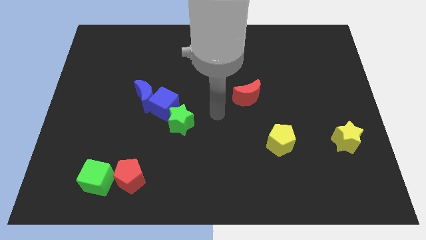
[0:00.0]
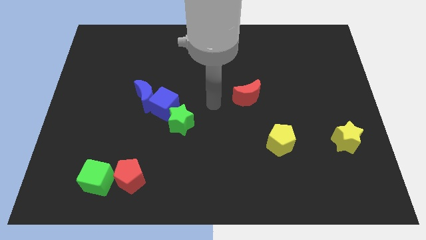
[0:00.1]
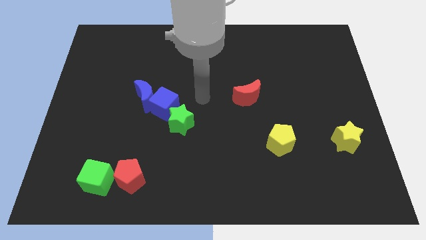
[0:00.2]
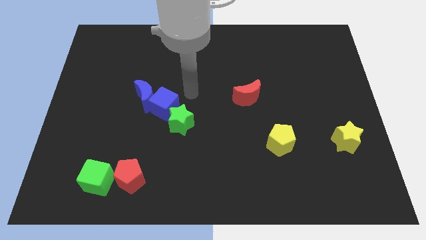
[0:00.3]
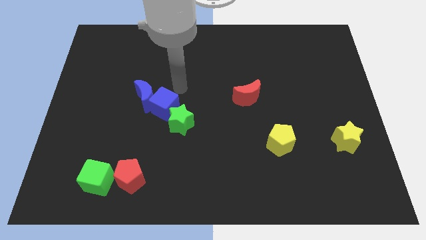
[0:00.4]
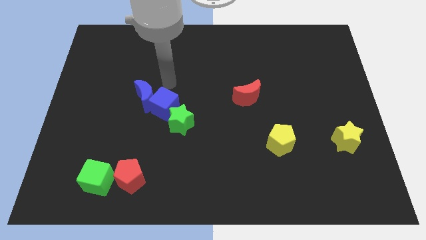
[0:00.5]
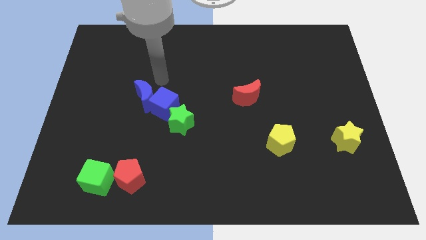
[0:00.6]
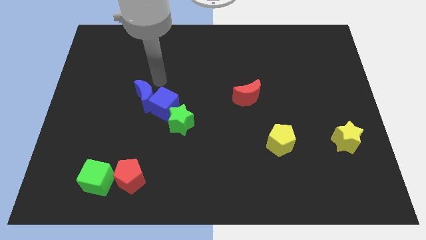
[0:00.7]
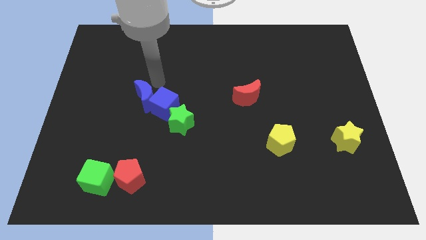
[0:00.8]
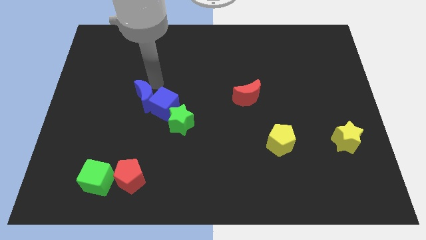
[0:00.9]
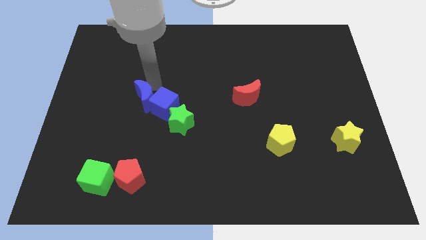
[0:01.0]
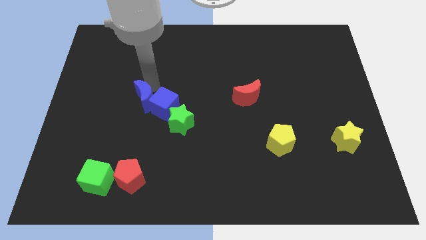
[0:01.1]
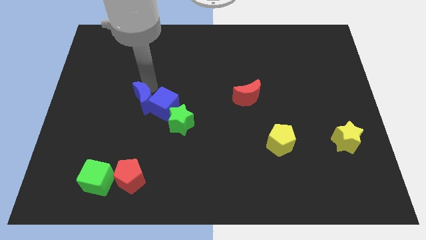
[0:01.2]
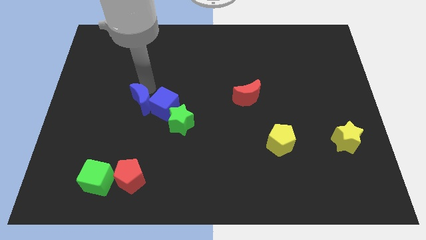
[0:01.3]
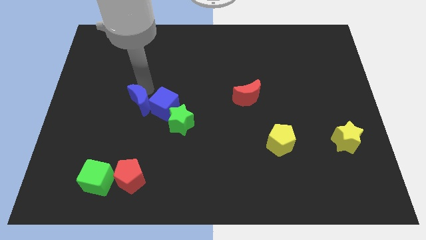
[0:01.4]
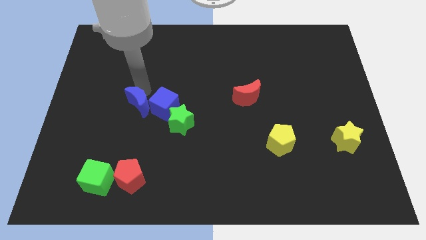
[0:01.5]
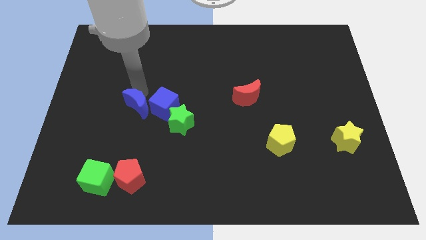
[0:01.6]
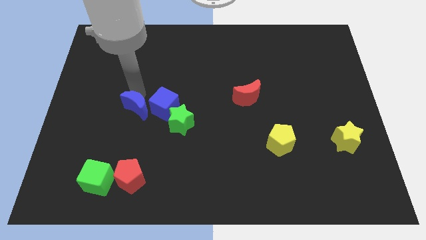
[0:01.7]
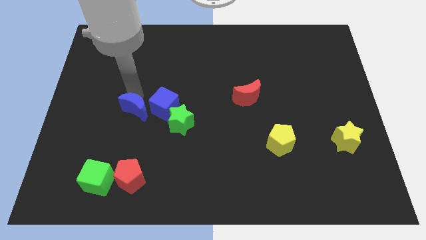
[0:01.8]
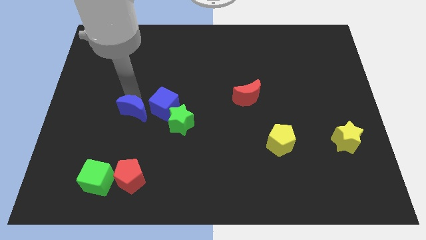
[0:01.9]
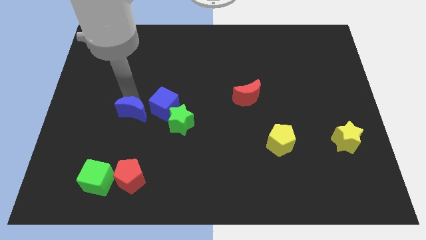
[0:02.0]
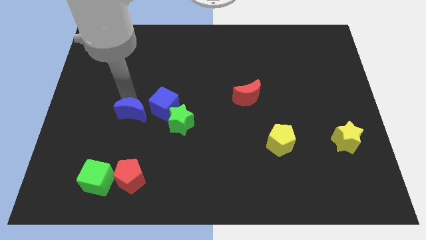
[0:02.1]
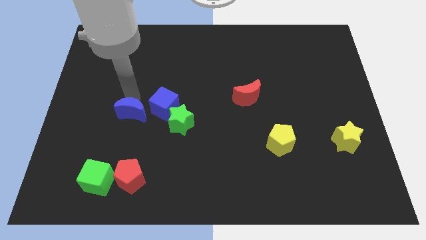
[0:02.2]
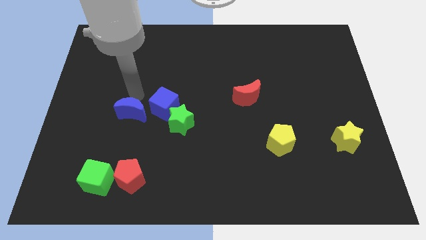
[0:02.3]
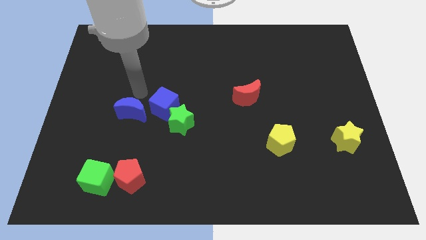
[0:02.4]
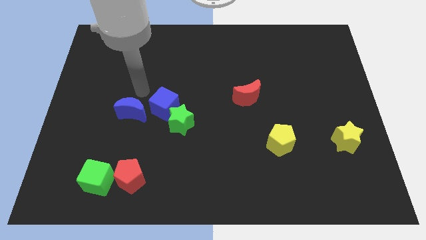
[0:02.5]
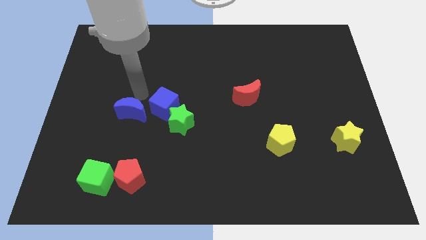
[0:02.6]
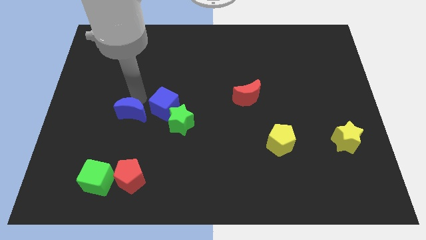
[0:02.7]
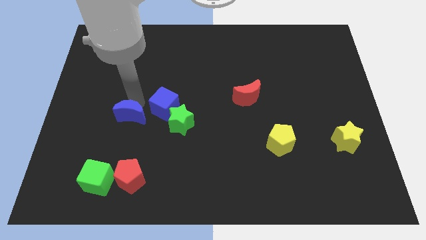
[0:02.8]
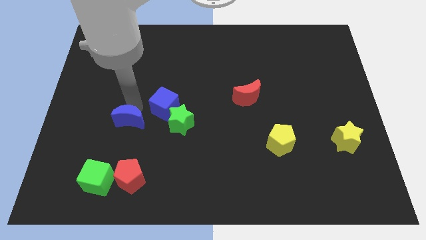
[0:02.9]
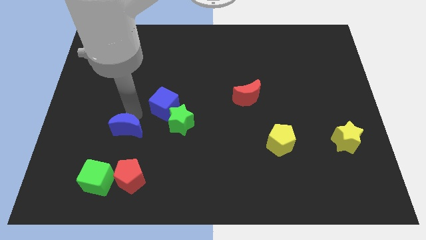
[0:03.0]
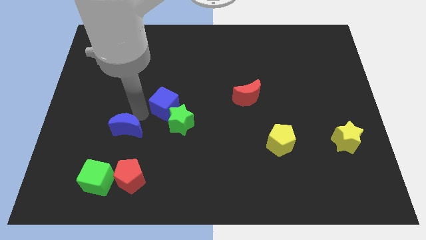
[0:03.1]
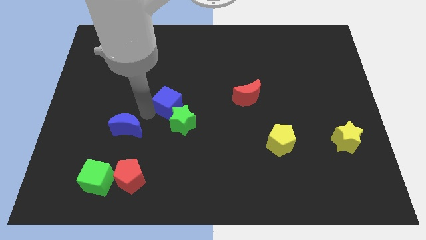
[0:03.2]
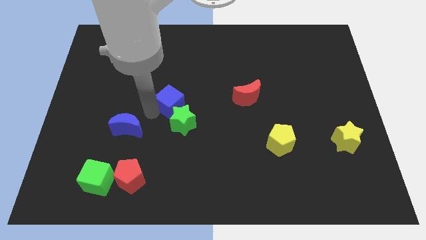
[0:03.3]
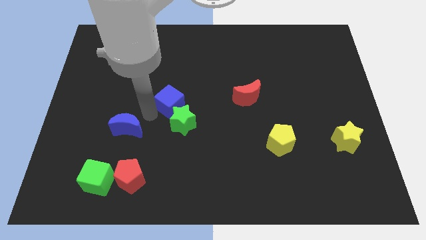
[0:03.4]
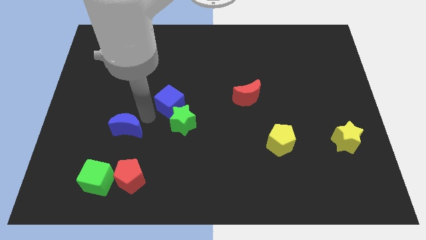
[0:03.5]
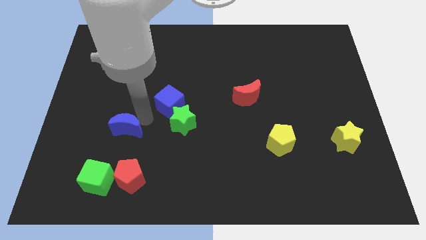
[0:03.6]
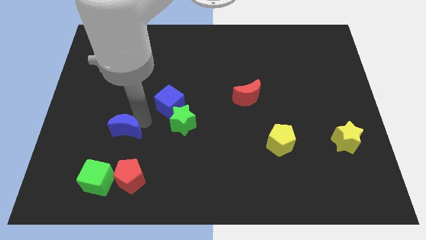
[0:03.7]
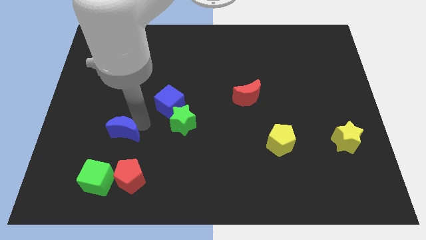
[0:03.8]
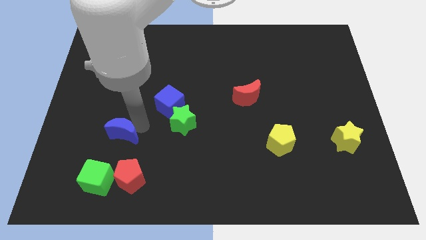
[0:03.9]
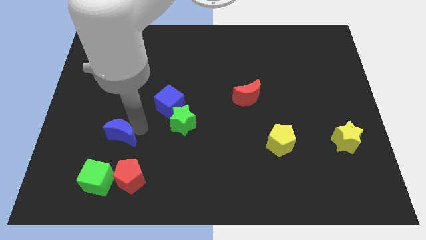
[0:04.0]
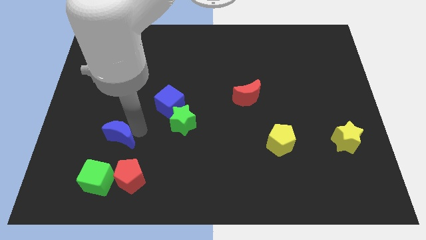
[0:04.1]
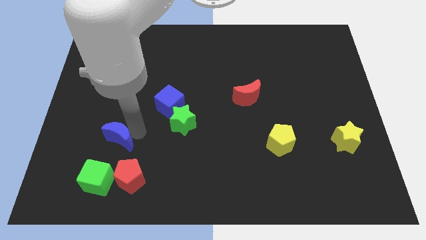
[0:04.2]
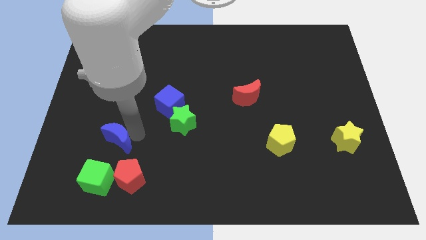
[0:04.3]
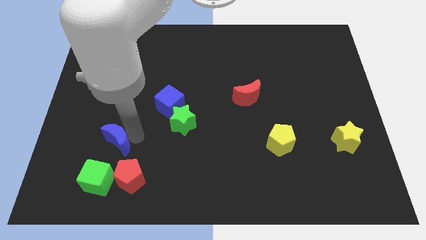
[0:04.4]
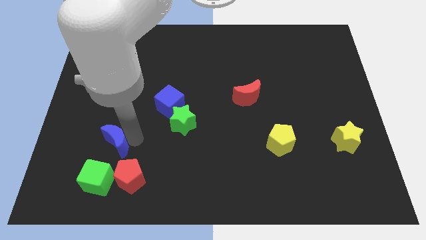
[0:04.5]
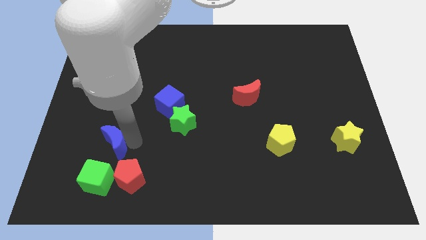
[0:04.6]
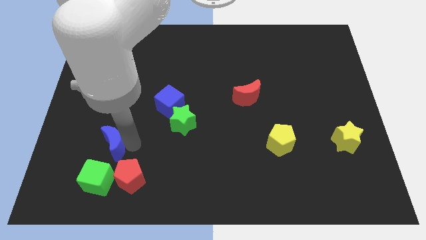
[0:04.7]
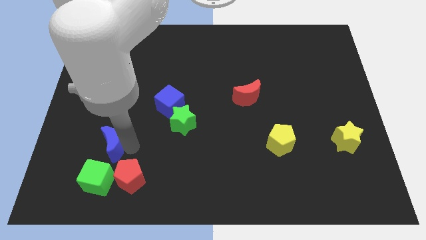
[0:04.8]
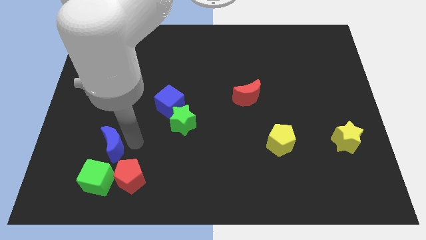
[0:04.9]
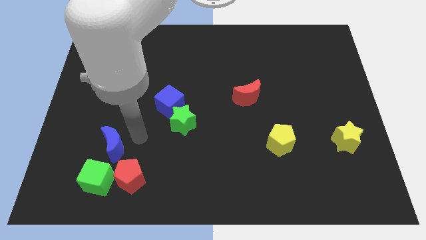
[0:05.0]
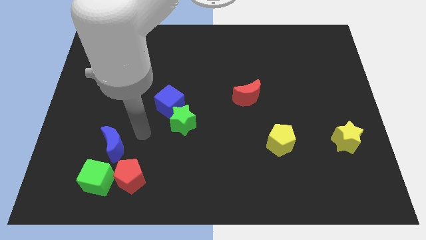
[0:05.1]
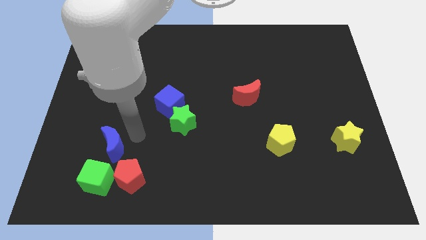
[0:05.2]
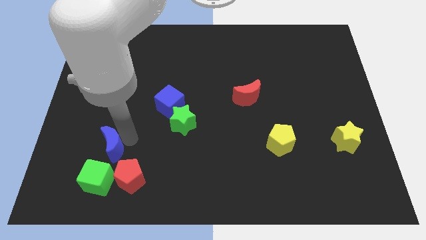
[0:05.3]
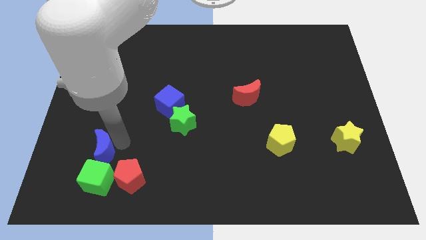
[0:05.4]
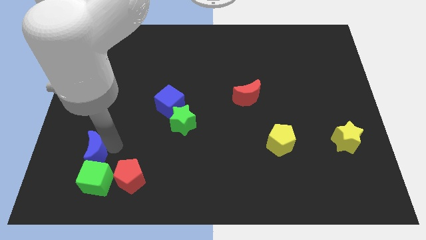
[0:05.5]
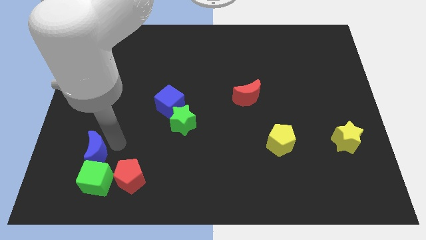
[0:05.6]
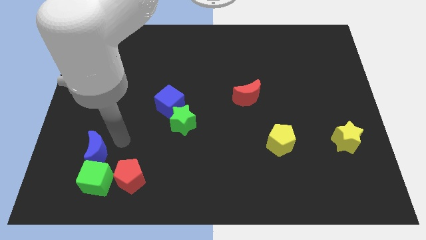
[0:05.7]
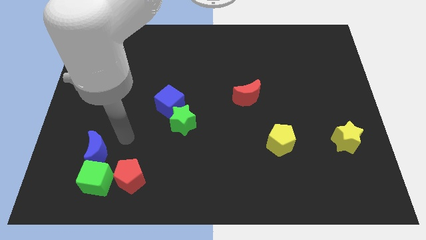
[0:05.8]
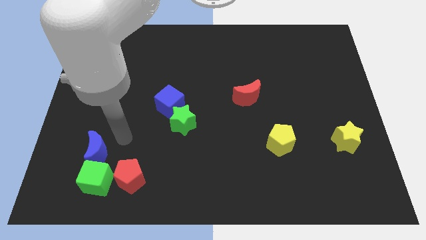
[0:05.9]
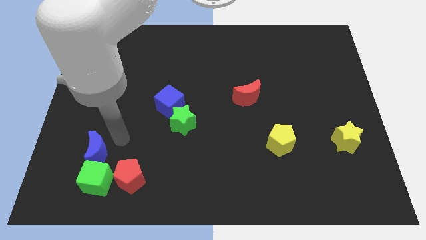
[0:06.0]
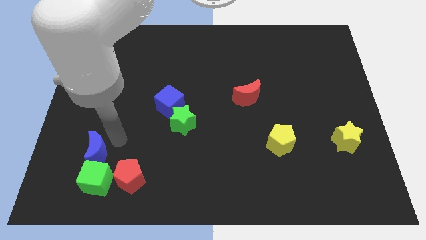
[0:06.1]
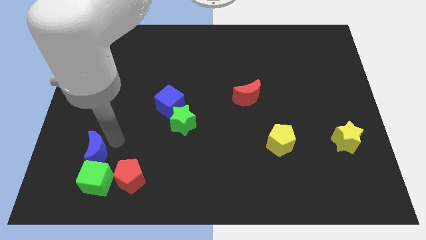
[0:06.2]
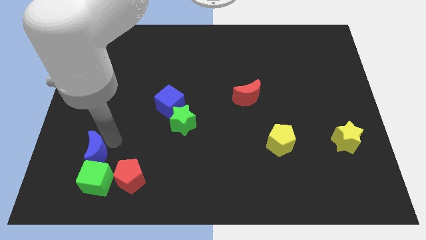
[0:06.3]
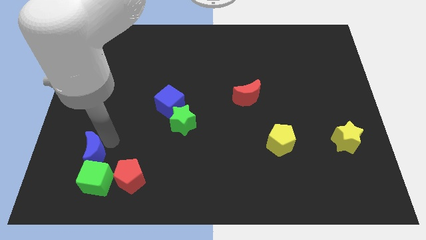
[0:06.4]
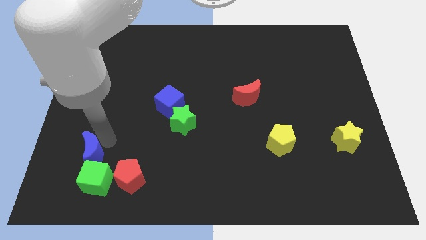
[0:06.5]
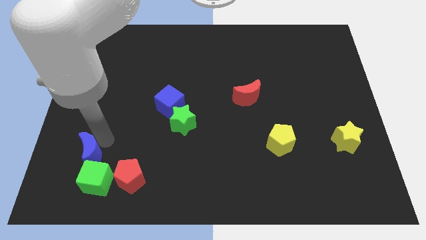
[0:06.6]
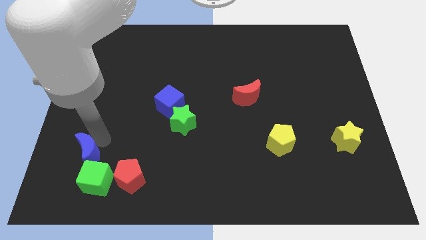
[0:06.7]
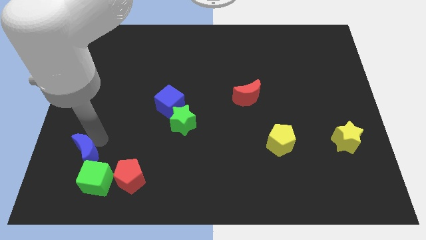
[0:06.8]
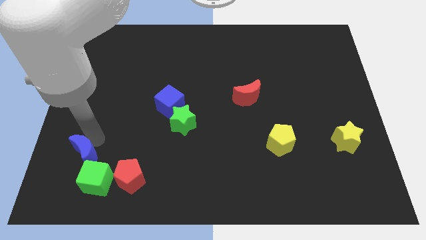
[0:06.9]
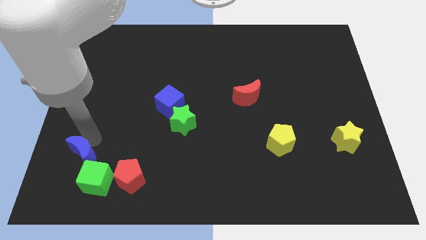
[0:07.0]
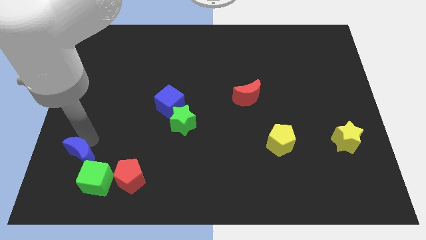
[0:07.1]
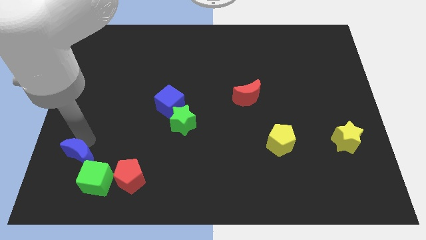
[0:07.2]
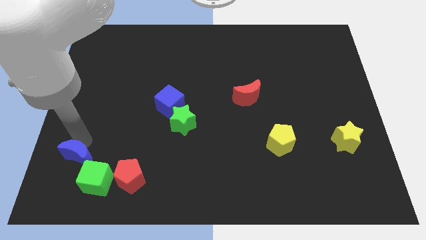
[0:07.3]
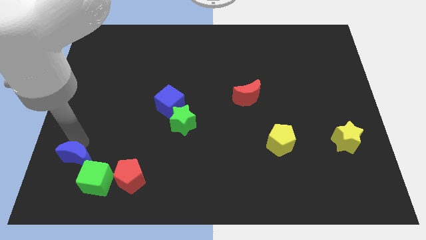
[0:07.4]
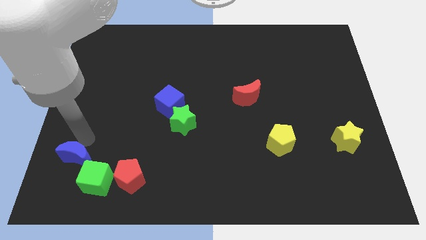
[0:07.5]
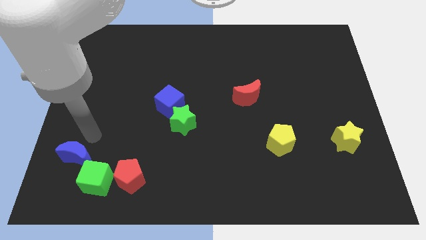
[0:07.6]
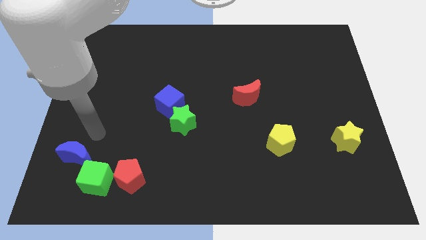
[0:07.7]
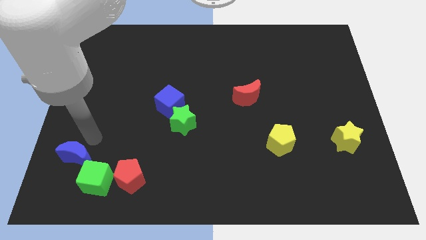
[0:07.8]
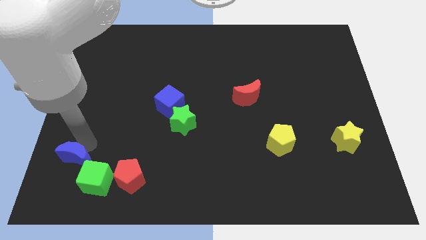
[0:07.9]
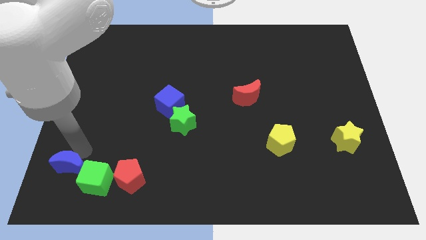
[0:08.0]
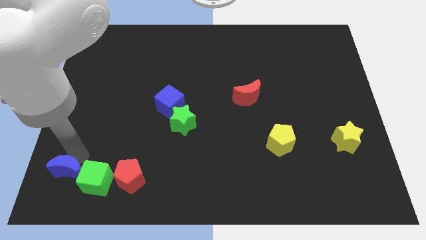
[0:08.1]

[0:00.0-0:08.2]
move the blue moon to the bottom left of the board
